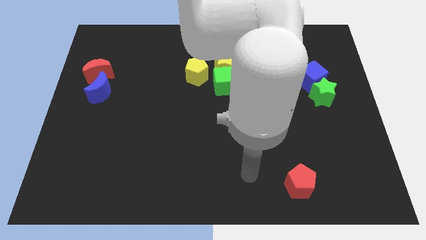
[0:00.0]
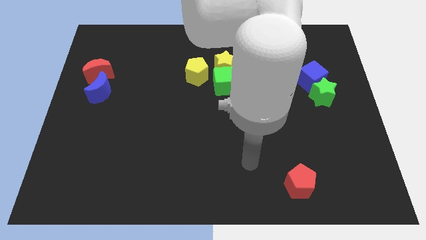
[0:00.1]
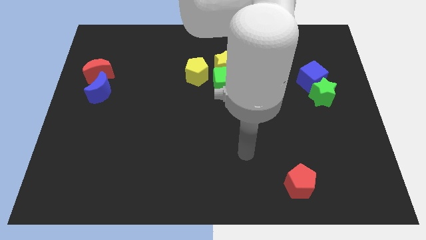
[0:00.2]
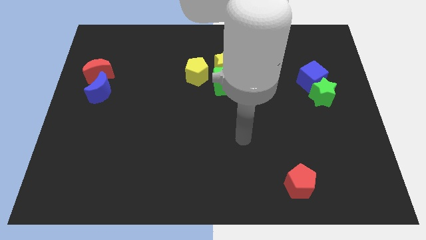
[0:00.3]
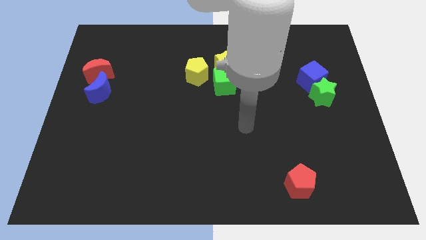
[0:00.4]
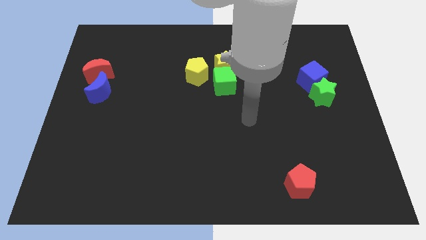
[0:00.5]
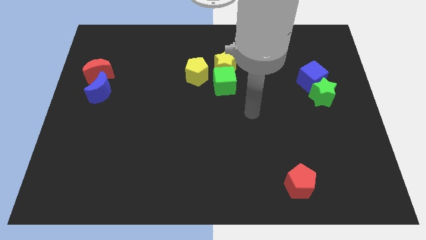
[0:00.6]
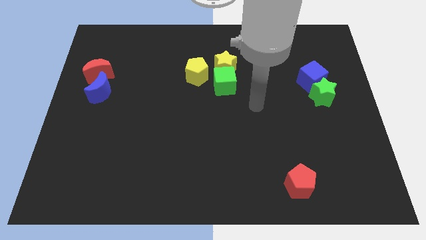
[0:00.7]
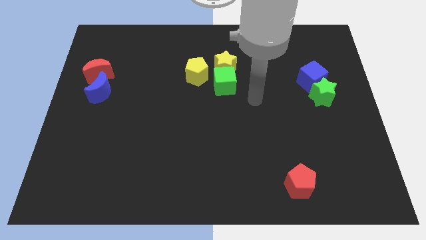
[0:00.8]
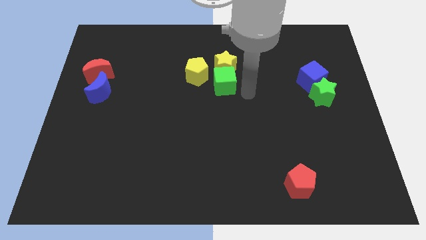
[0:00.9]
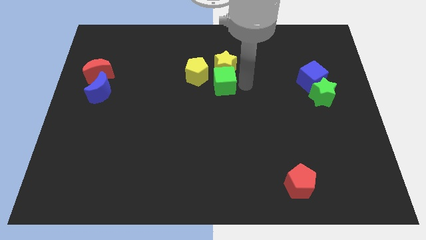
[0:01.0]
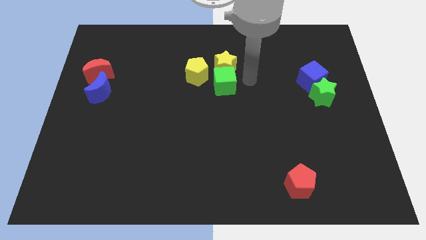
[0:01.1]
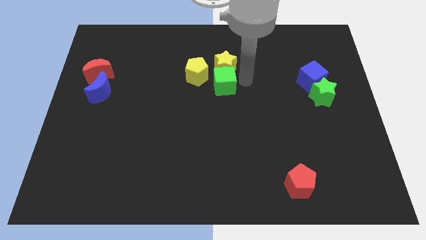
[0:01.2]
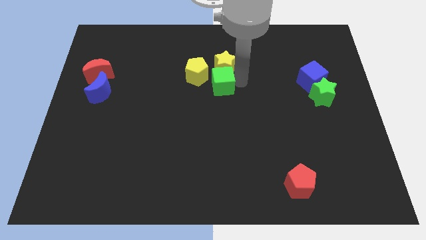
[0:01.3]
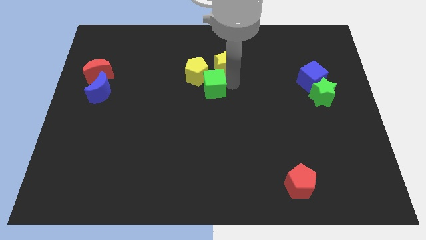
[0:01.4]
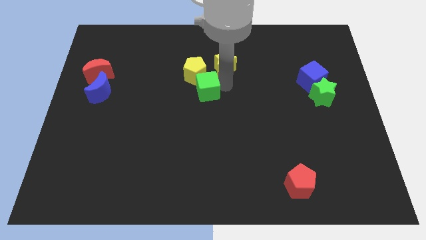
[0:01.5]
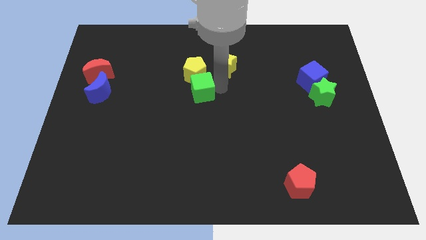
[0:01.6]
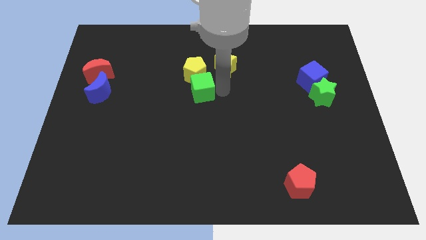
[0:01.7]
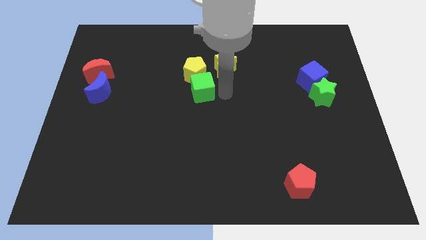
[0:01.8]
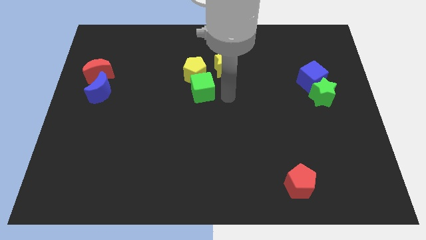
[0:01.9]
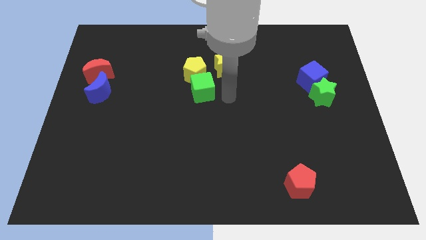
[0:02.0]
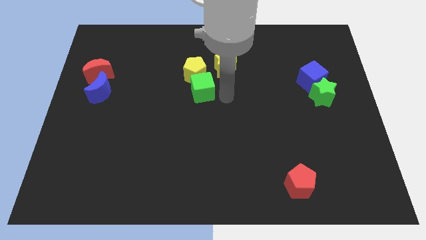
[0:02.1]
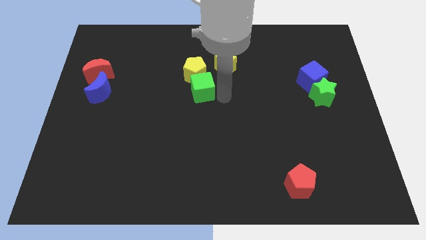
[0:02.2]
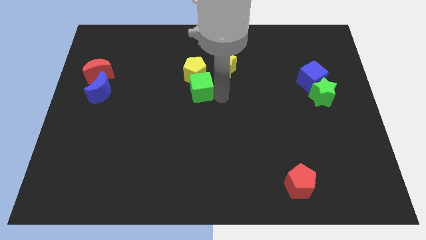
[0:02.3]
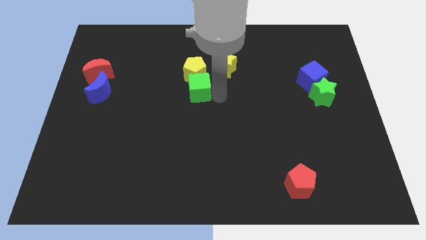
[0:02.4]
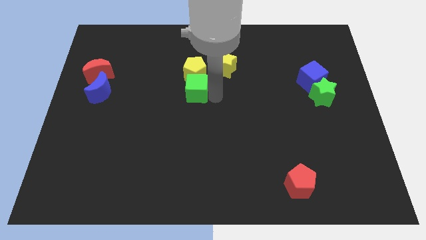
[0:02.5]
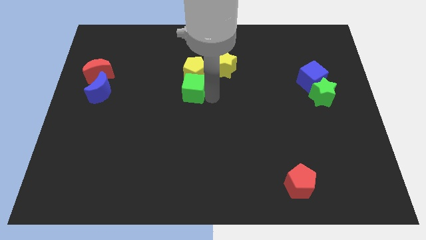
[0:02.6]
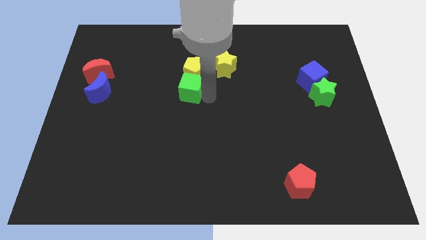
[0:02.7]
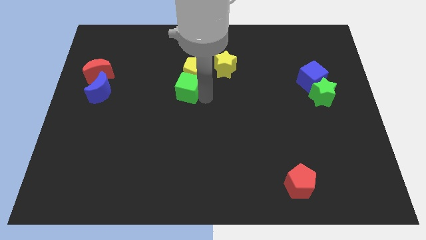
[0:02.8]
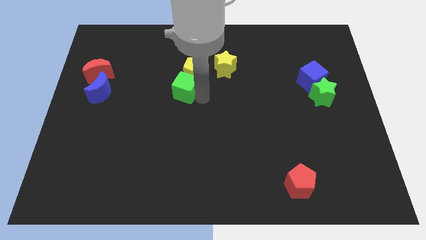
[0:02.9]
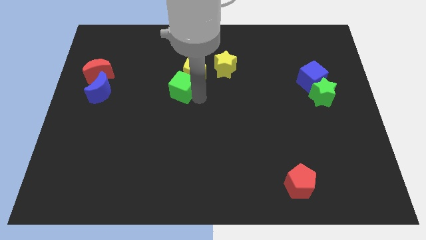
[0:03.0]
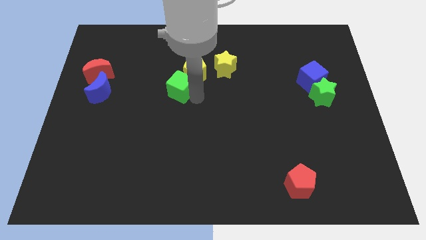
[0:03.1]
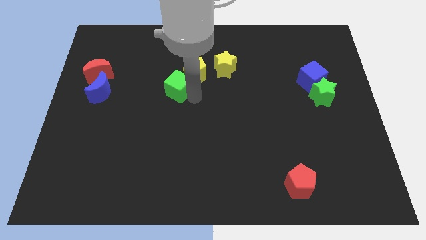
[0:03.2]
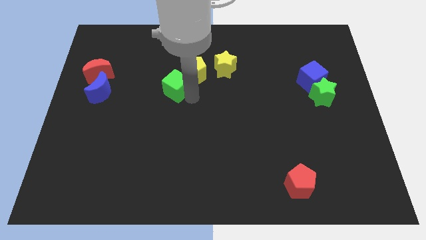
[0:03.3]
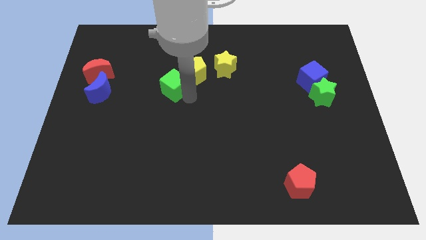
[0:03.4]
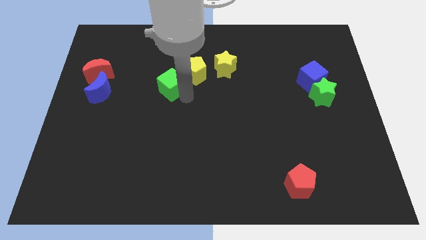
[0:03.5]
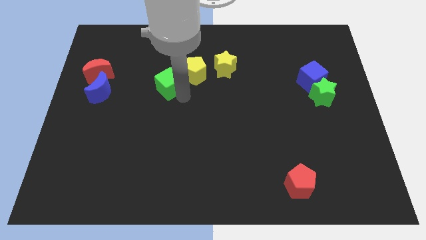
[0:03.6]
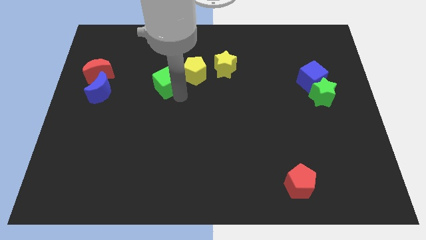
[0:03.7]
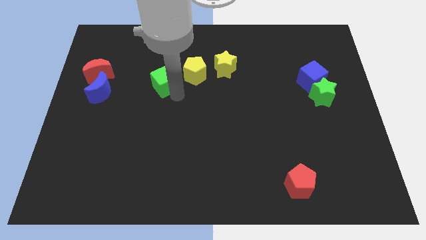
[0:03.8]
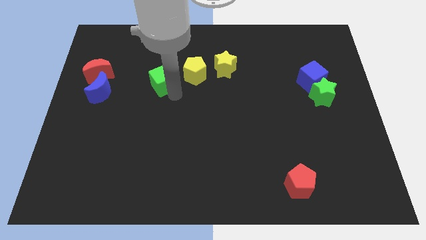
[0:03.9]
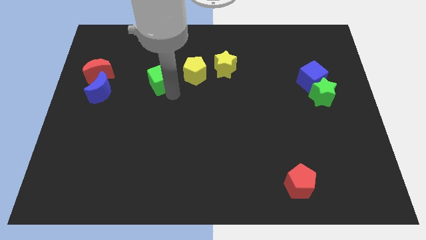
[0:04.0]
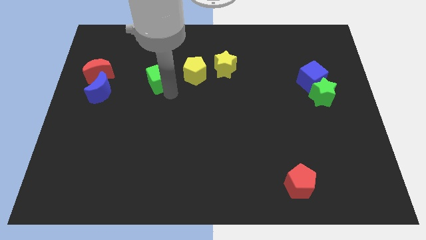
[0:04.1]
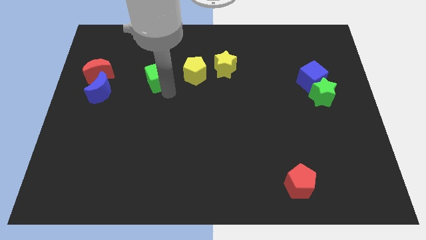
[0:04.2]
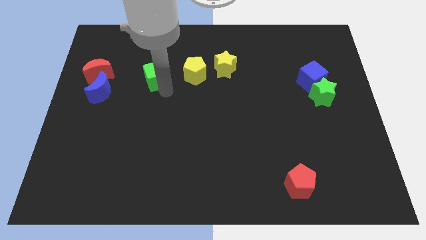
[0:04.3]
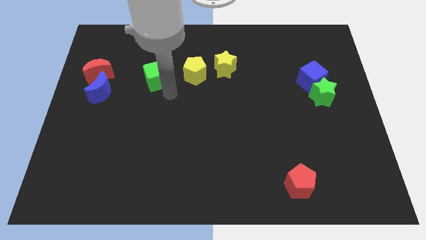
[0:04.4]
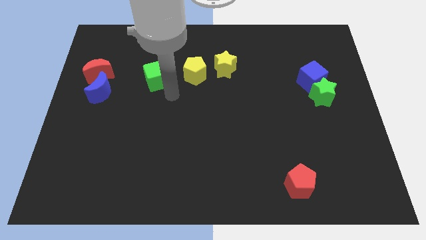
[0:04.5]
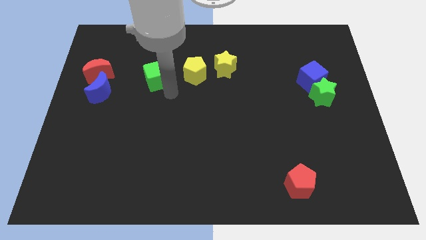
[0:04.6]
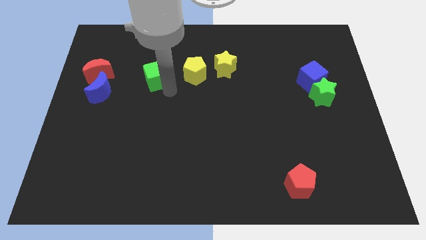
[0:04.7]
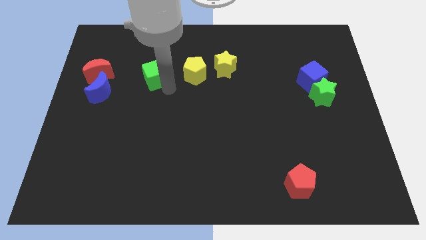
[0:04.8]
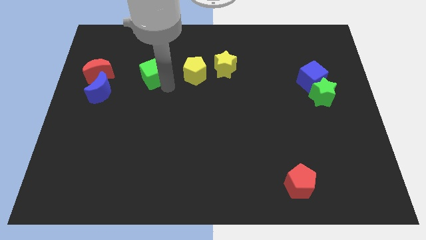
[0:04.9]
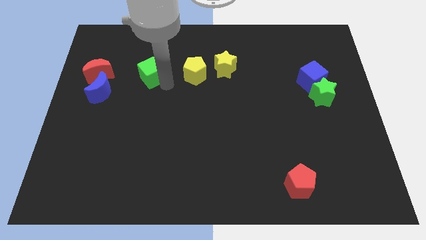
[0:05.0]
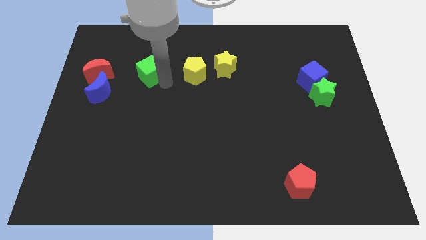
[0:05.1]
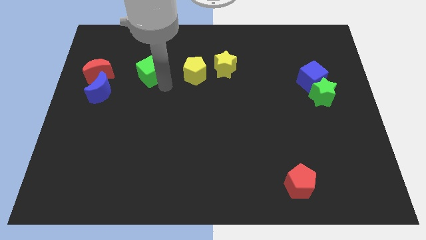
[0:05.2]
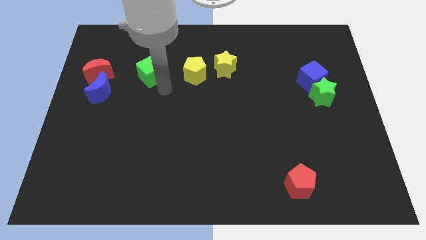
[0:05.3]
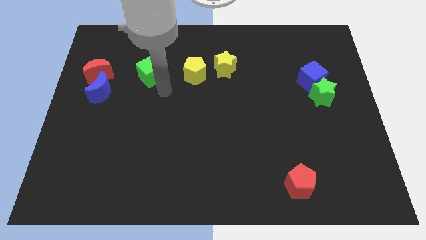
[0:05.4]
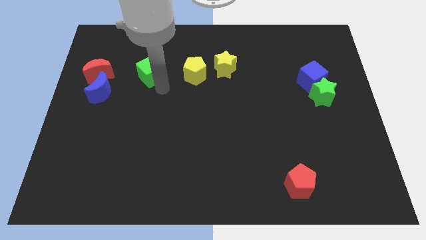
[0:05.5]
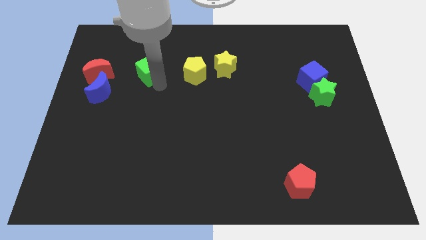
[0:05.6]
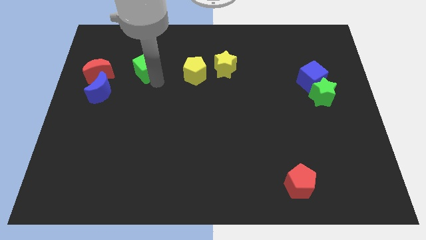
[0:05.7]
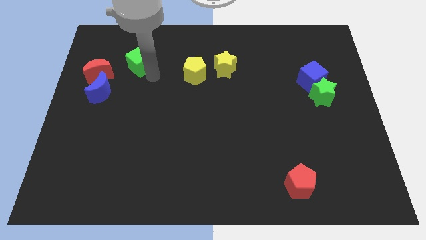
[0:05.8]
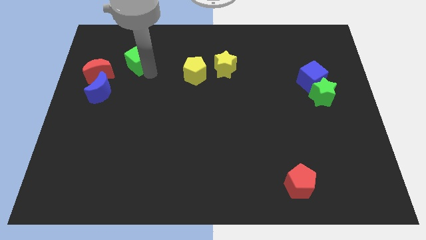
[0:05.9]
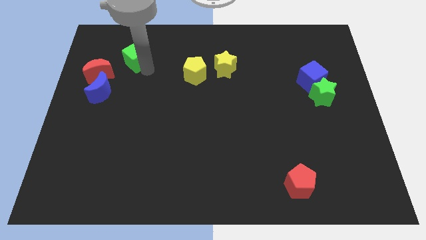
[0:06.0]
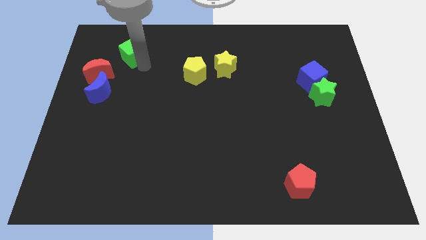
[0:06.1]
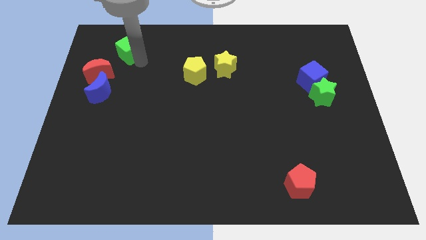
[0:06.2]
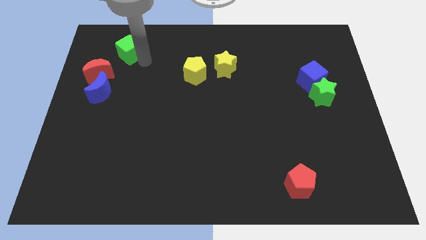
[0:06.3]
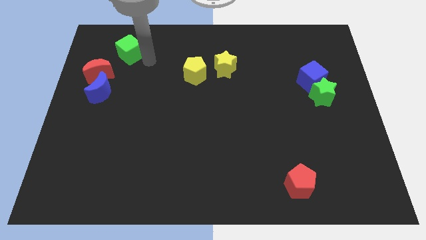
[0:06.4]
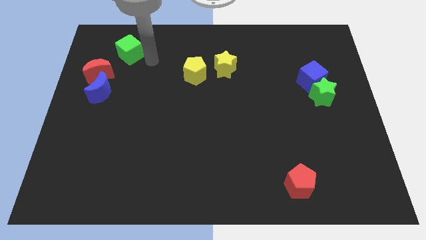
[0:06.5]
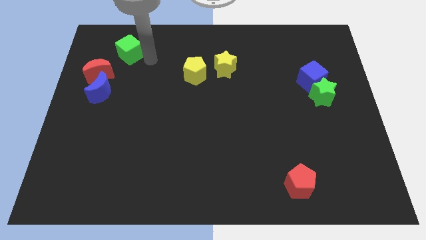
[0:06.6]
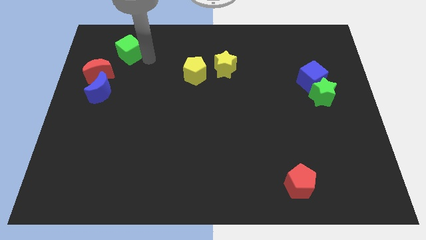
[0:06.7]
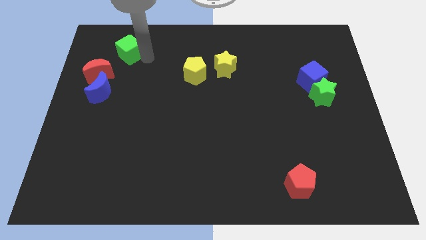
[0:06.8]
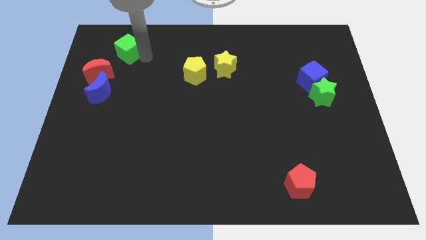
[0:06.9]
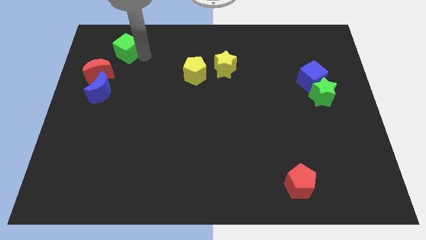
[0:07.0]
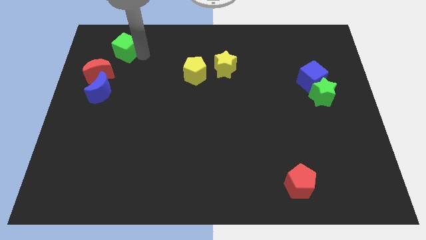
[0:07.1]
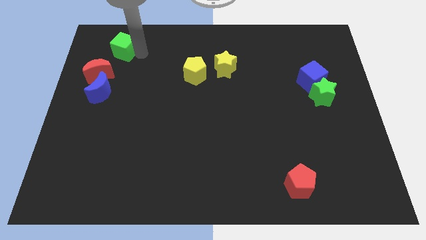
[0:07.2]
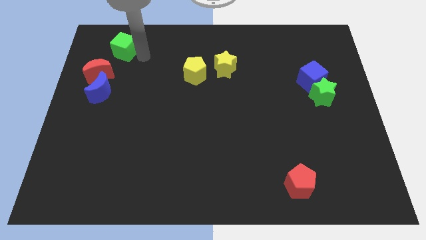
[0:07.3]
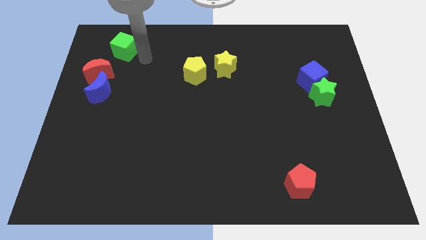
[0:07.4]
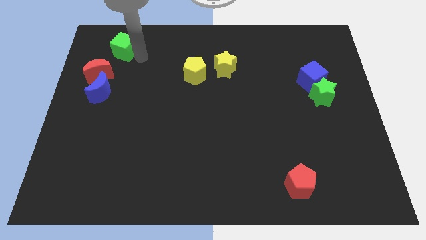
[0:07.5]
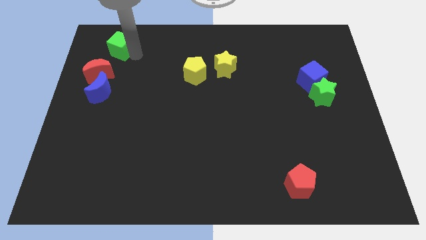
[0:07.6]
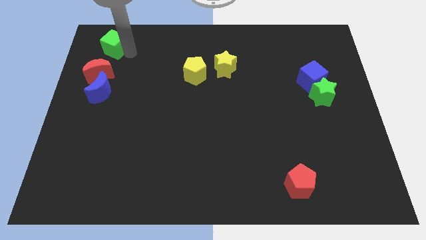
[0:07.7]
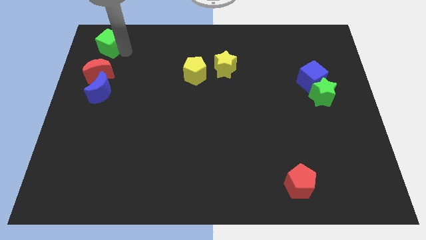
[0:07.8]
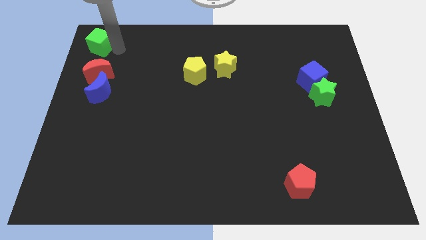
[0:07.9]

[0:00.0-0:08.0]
slide the green cube to the top left
